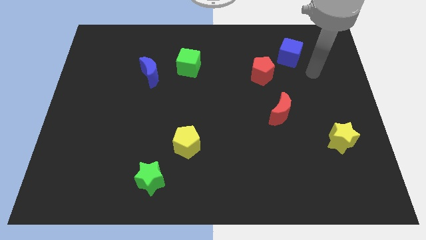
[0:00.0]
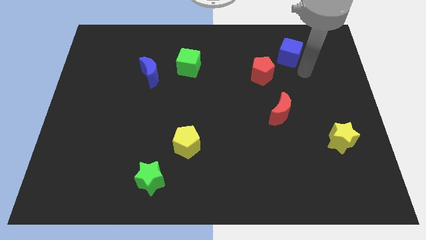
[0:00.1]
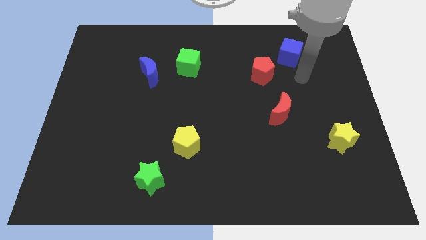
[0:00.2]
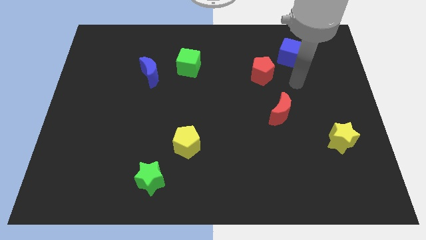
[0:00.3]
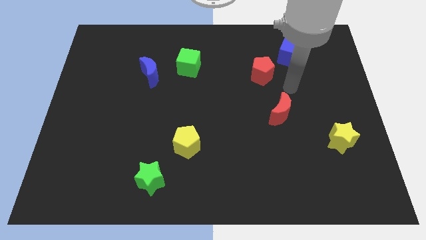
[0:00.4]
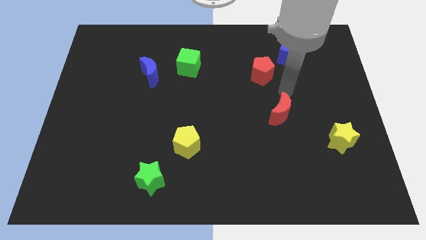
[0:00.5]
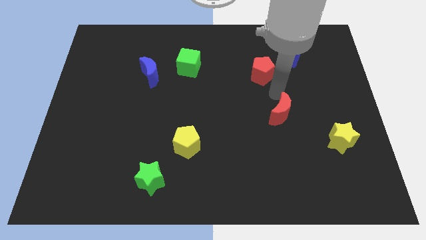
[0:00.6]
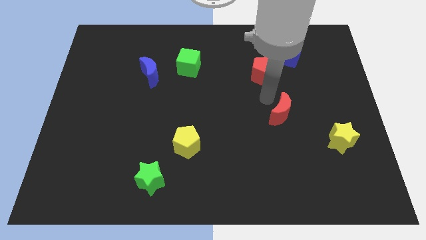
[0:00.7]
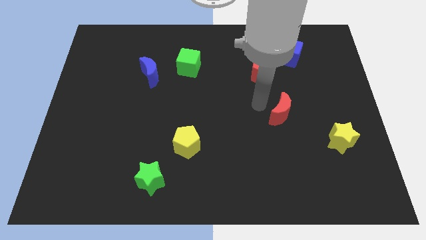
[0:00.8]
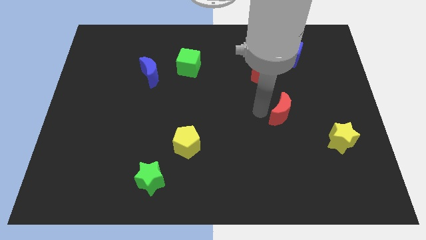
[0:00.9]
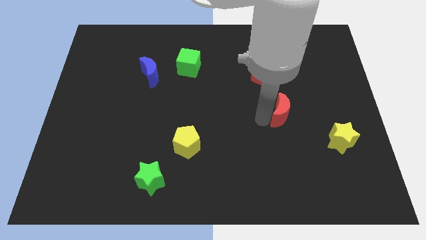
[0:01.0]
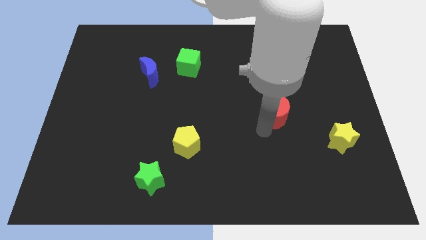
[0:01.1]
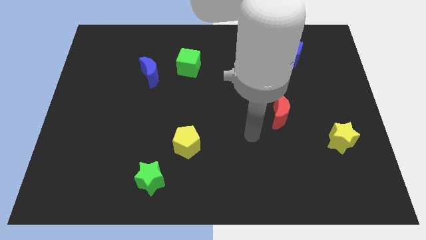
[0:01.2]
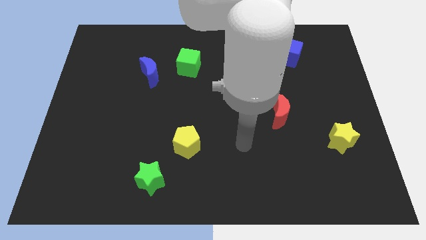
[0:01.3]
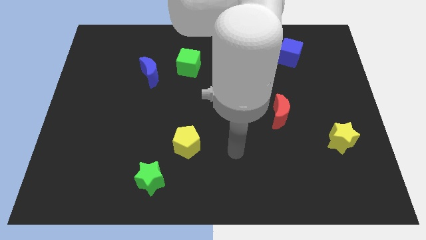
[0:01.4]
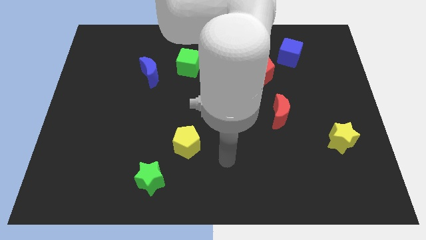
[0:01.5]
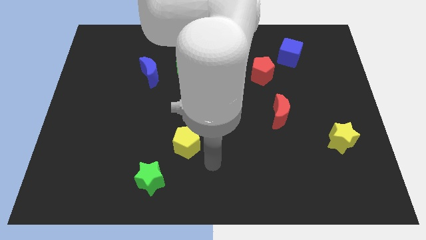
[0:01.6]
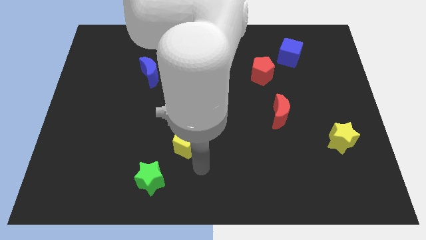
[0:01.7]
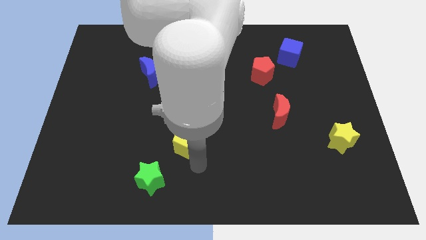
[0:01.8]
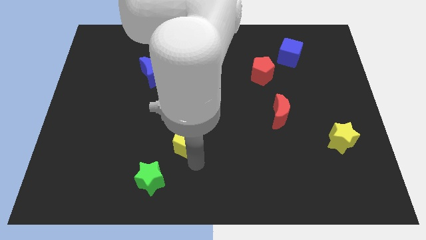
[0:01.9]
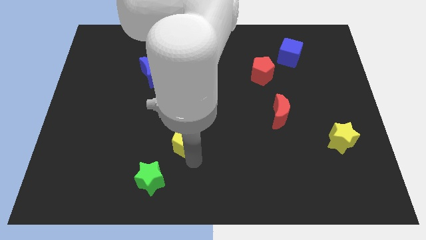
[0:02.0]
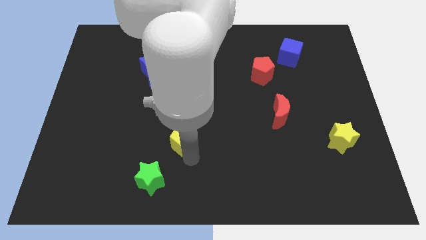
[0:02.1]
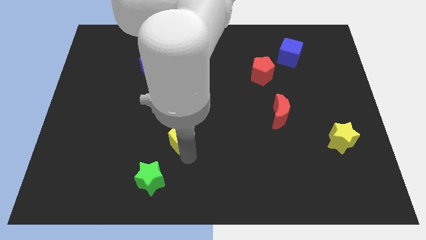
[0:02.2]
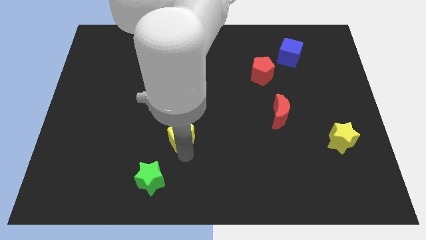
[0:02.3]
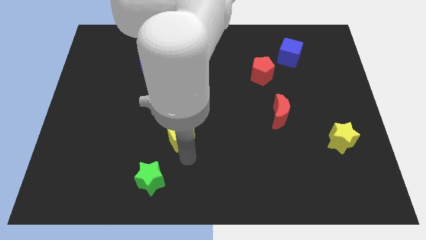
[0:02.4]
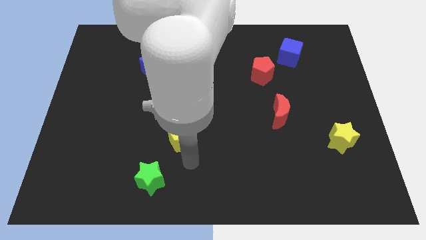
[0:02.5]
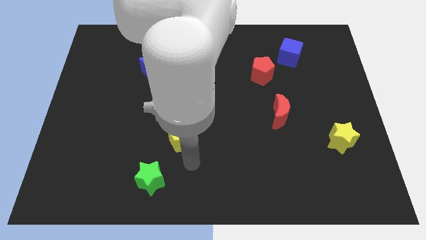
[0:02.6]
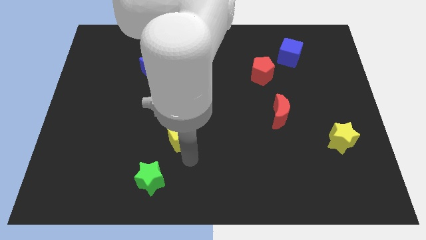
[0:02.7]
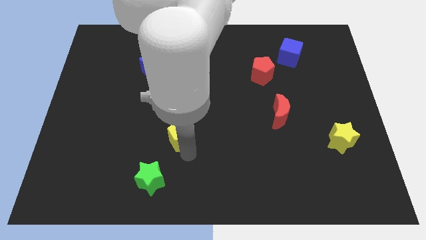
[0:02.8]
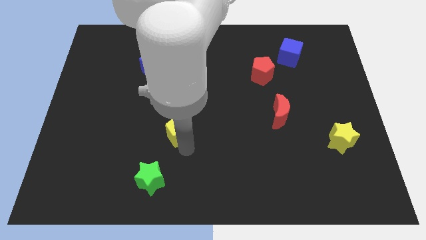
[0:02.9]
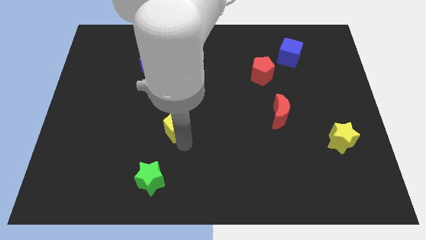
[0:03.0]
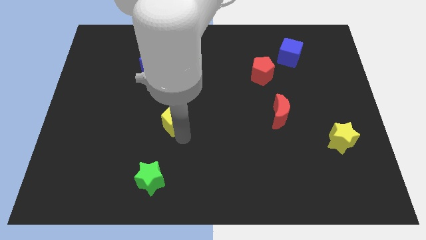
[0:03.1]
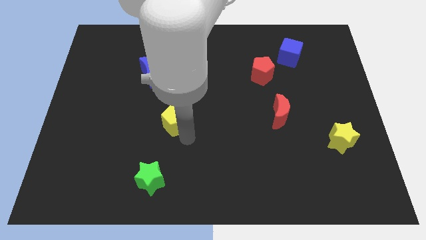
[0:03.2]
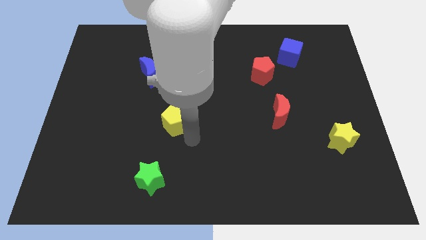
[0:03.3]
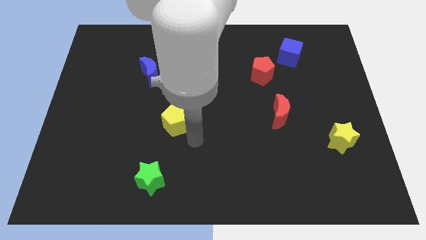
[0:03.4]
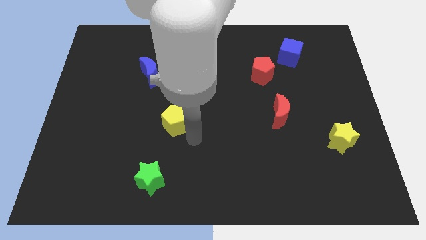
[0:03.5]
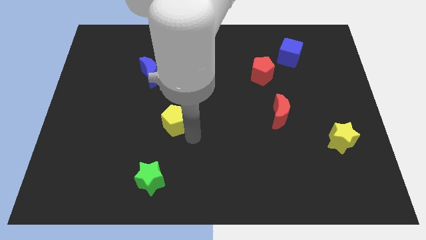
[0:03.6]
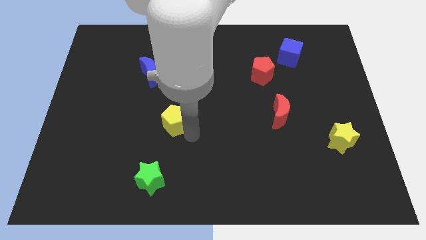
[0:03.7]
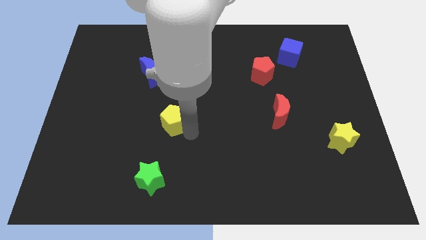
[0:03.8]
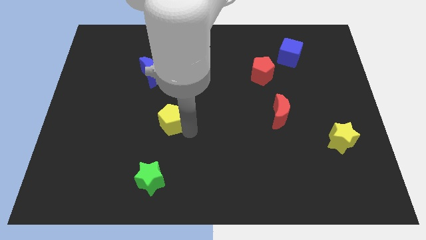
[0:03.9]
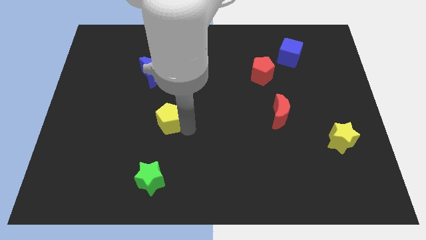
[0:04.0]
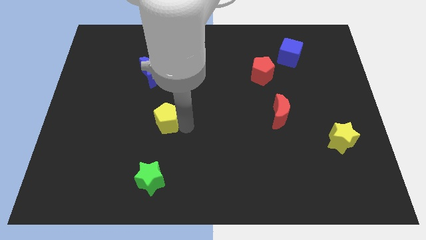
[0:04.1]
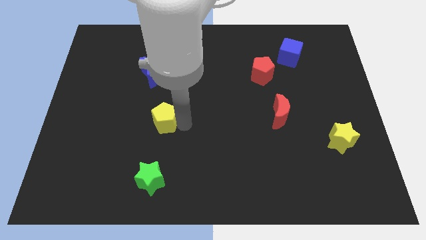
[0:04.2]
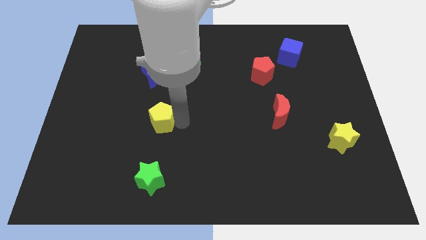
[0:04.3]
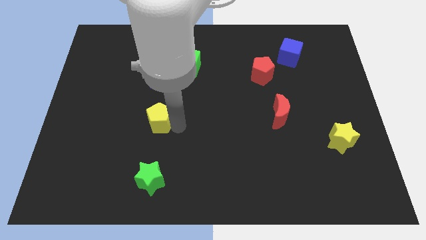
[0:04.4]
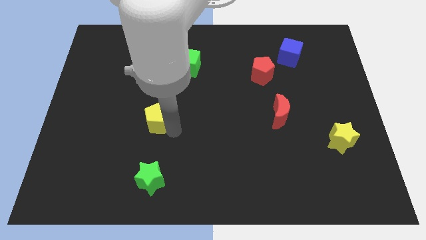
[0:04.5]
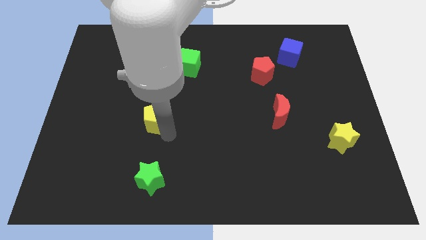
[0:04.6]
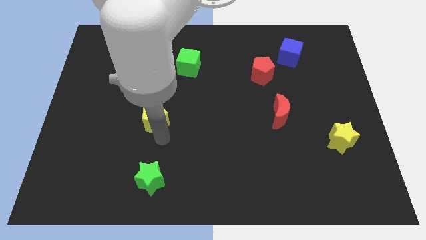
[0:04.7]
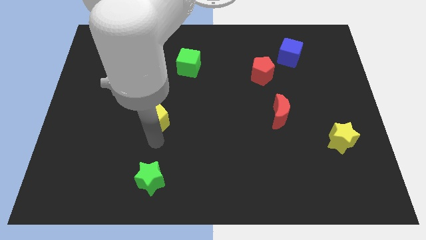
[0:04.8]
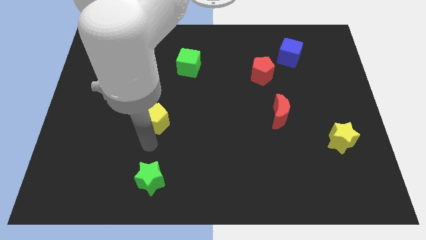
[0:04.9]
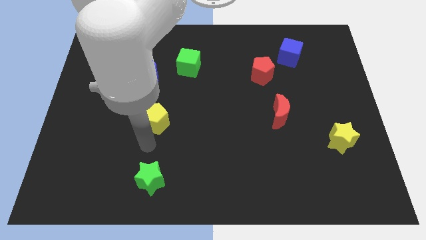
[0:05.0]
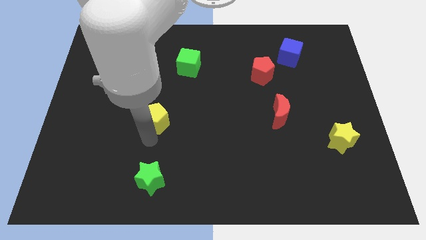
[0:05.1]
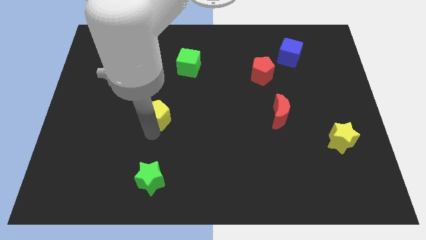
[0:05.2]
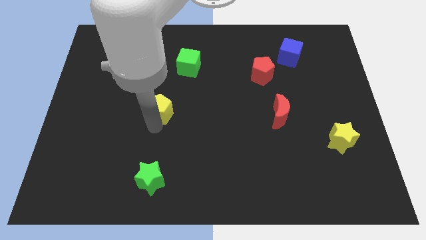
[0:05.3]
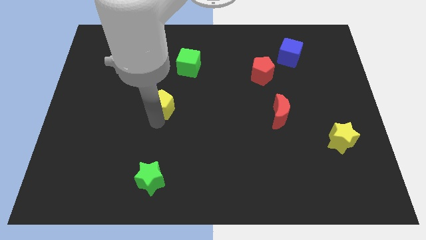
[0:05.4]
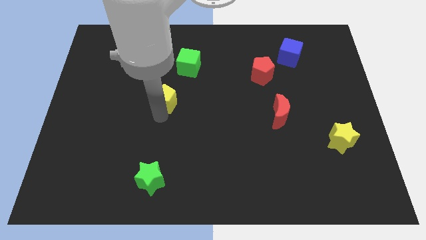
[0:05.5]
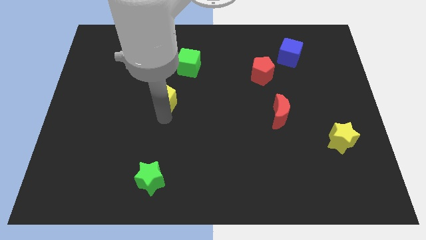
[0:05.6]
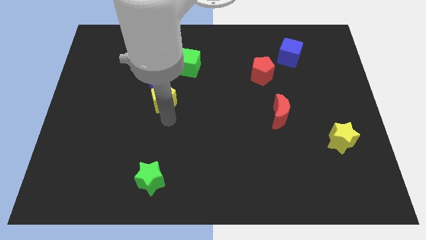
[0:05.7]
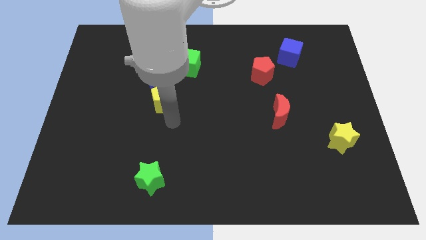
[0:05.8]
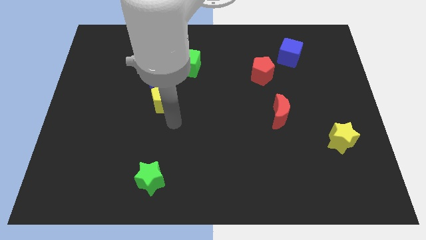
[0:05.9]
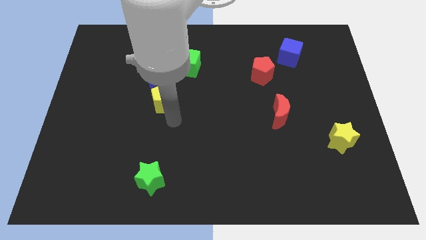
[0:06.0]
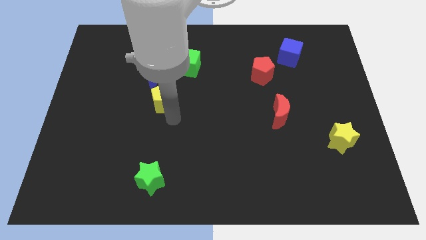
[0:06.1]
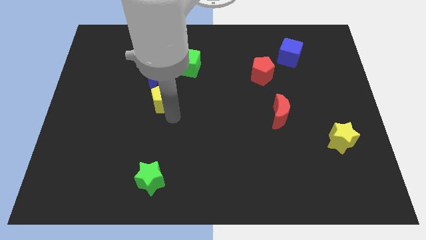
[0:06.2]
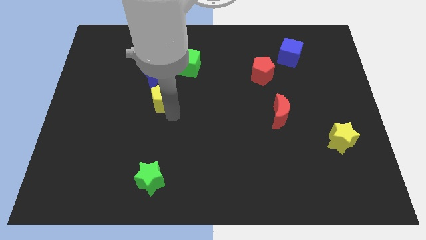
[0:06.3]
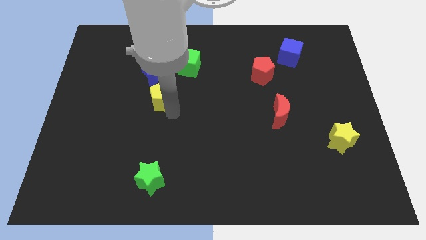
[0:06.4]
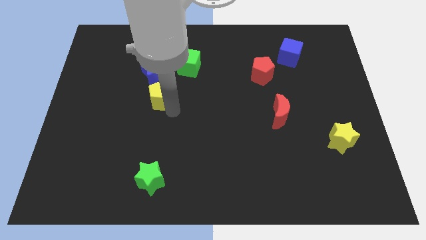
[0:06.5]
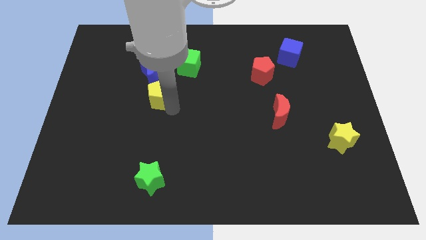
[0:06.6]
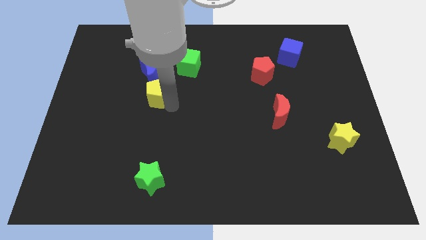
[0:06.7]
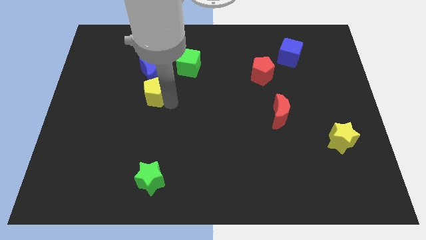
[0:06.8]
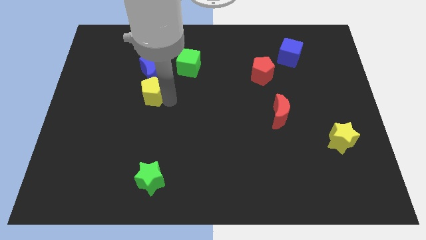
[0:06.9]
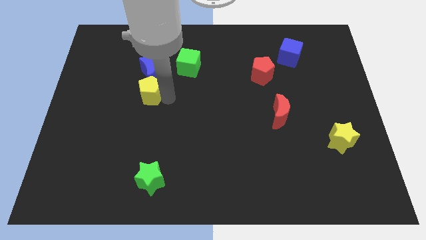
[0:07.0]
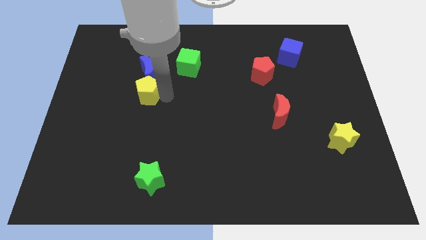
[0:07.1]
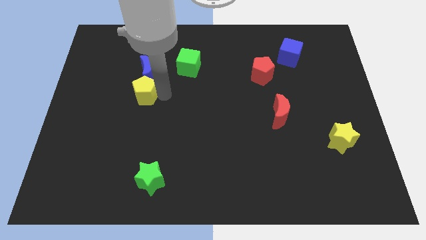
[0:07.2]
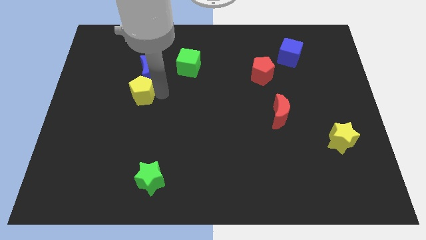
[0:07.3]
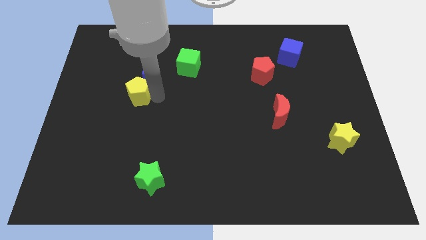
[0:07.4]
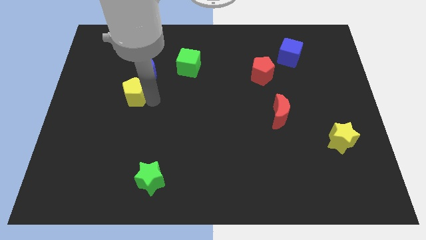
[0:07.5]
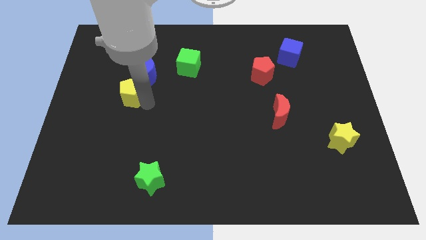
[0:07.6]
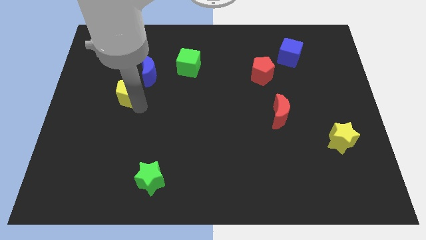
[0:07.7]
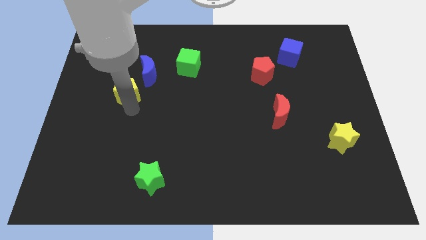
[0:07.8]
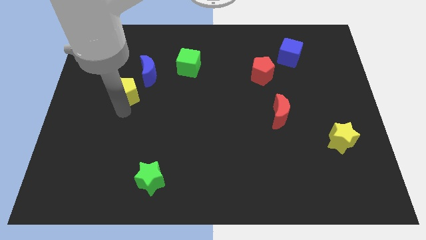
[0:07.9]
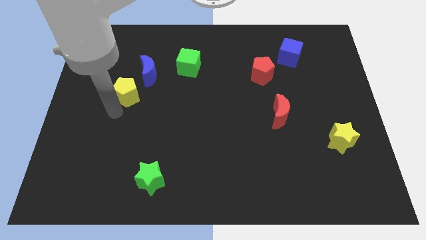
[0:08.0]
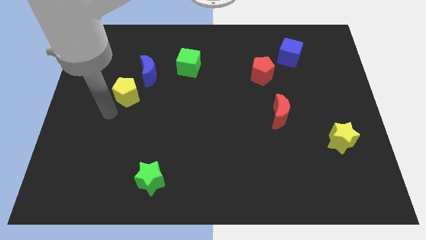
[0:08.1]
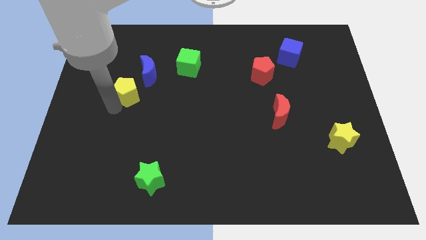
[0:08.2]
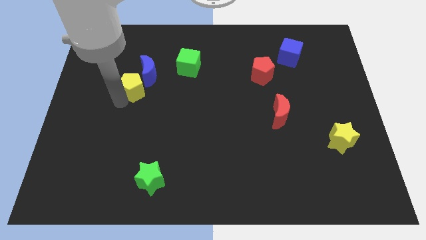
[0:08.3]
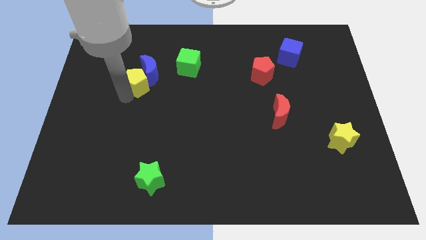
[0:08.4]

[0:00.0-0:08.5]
push the yellow pentagon to the blue moon
